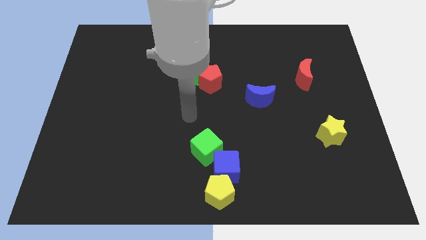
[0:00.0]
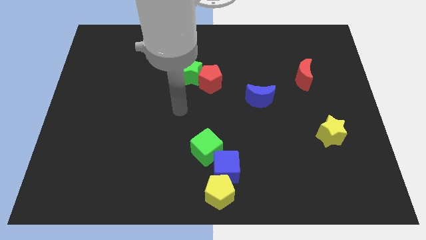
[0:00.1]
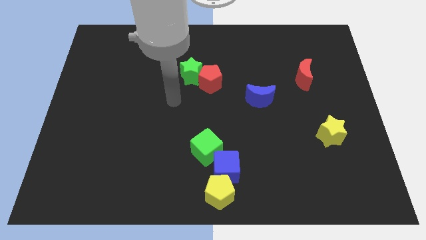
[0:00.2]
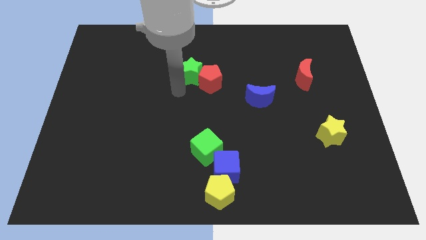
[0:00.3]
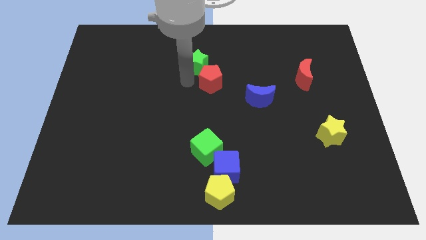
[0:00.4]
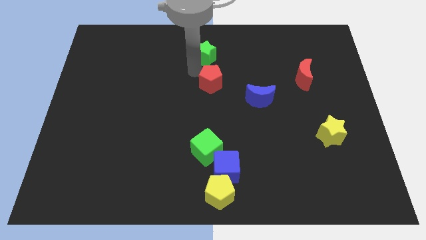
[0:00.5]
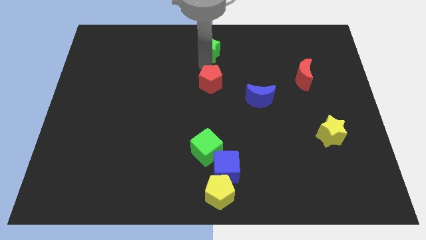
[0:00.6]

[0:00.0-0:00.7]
move the red pentagon away from the green star

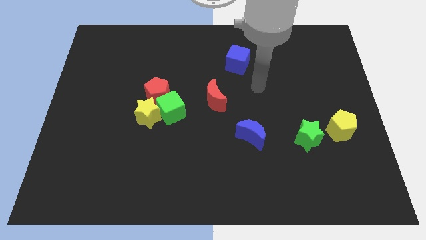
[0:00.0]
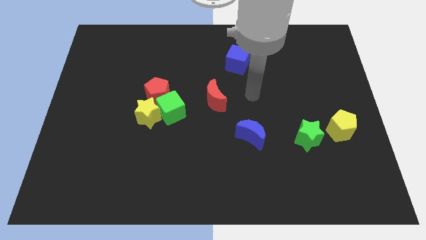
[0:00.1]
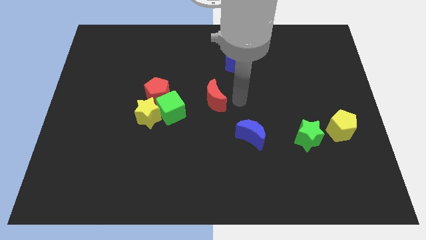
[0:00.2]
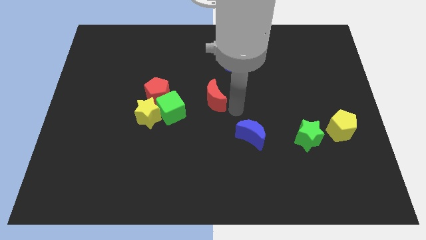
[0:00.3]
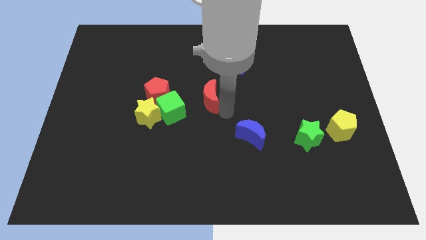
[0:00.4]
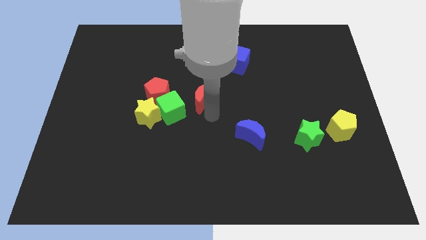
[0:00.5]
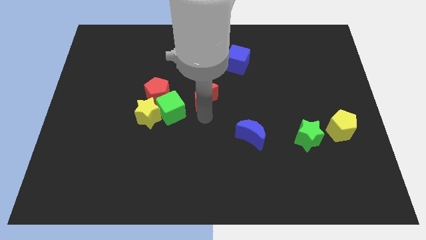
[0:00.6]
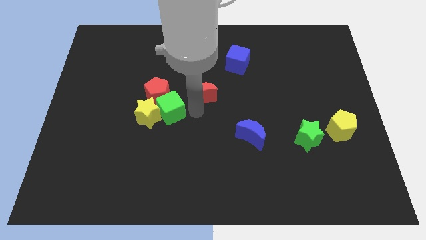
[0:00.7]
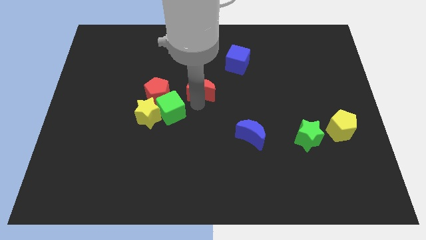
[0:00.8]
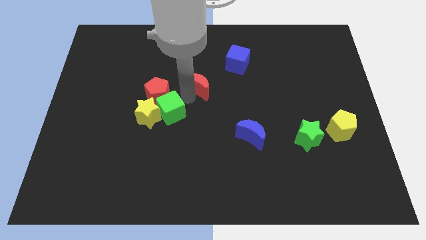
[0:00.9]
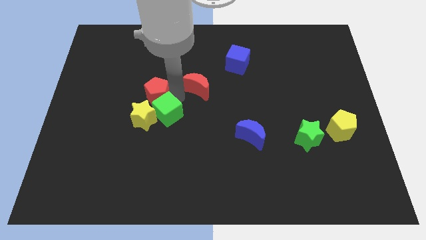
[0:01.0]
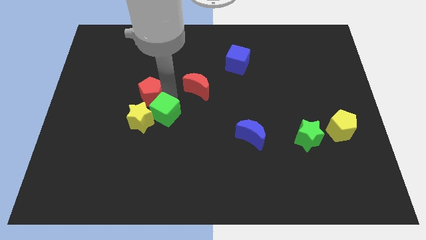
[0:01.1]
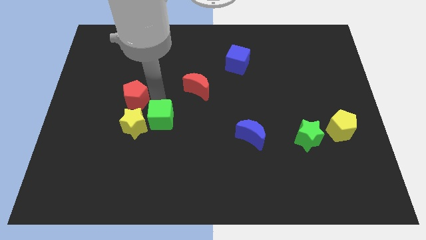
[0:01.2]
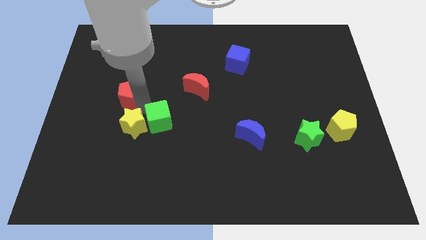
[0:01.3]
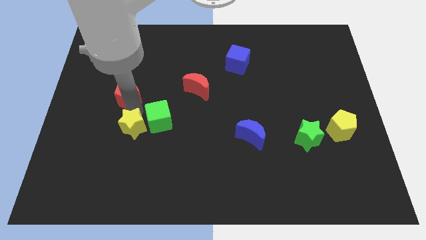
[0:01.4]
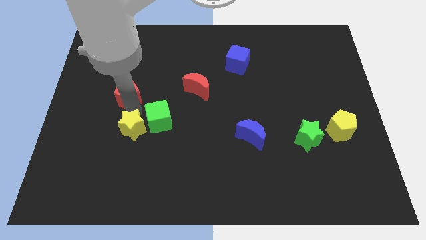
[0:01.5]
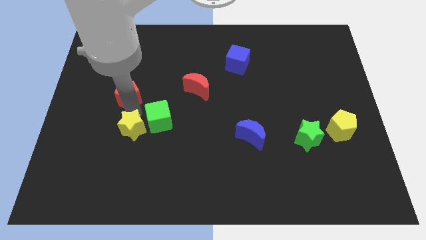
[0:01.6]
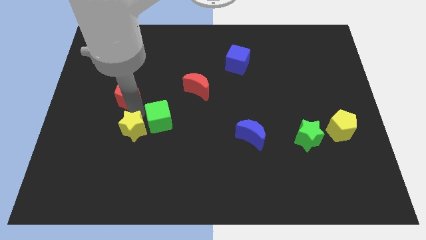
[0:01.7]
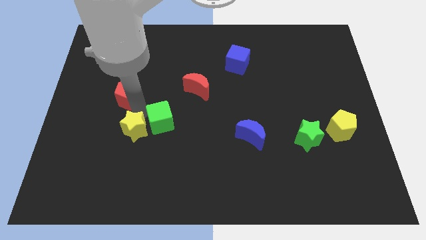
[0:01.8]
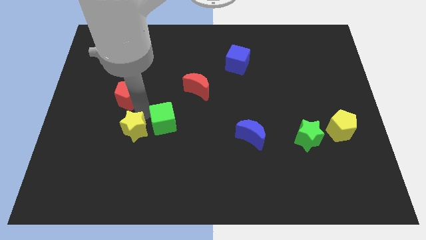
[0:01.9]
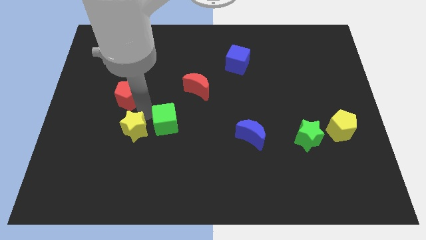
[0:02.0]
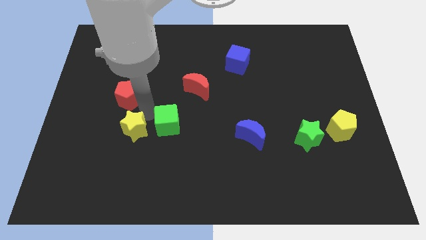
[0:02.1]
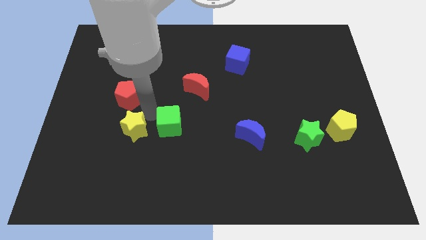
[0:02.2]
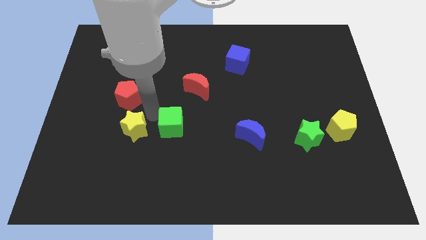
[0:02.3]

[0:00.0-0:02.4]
separate the green cube from the yellow star and red pentagon

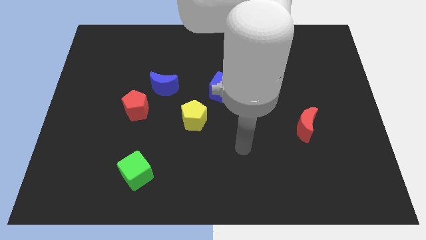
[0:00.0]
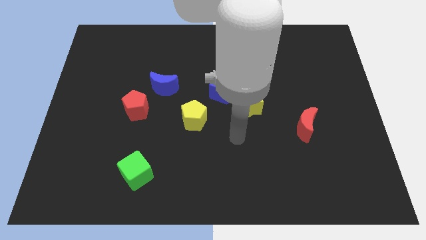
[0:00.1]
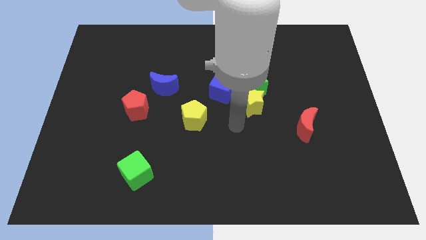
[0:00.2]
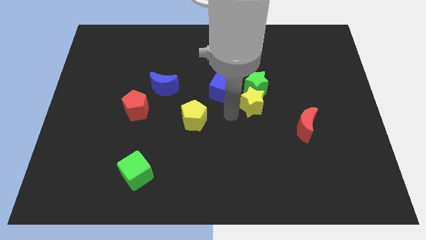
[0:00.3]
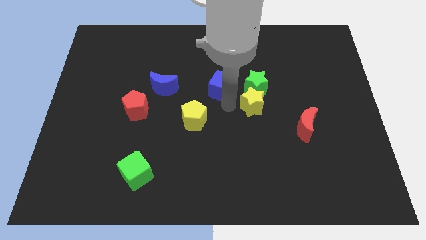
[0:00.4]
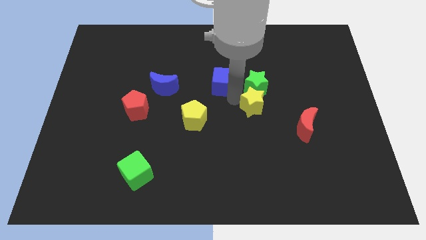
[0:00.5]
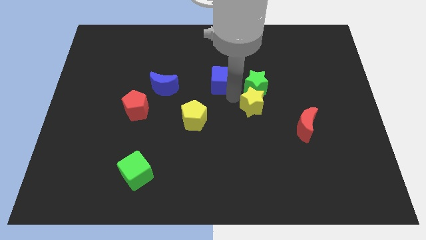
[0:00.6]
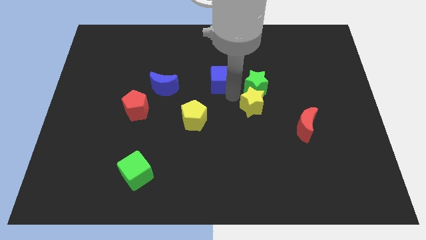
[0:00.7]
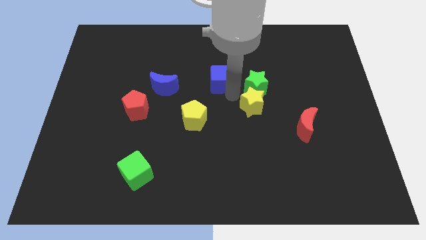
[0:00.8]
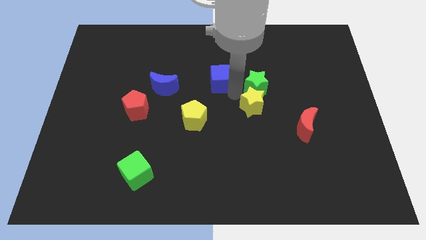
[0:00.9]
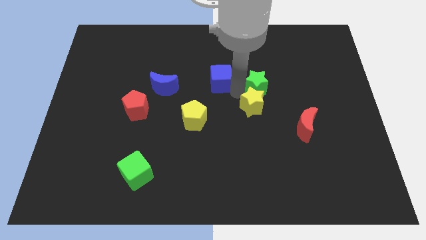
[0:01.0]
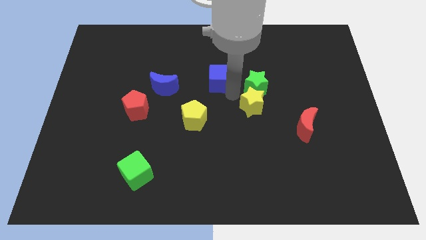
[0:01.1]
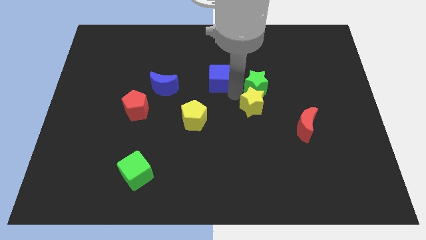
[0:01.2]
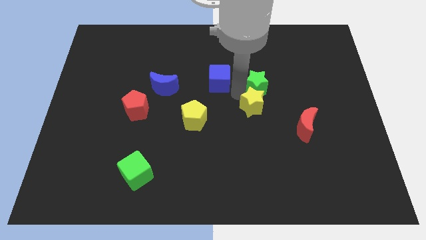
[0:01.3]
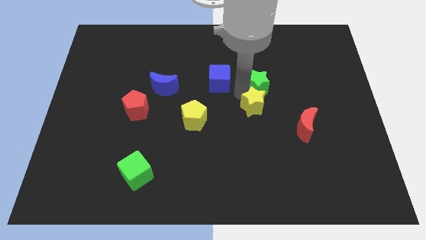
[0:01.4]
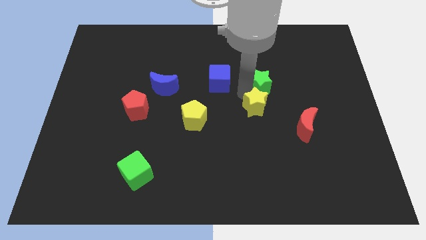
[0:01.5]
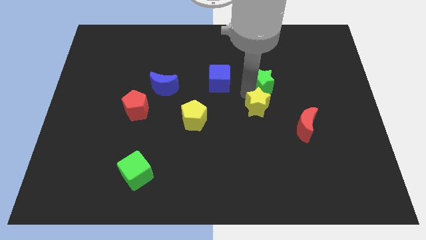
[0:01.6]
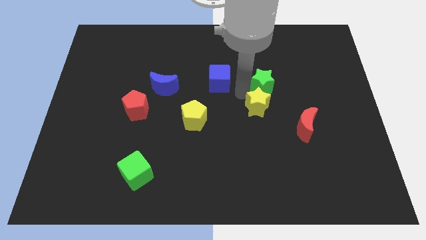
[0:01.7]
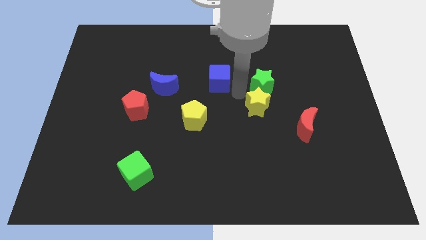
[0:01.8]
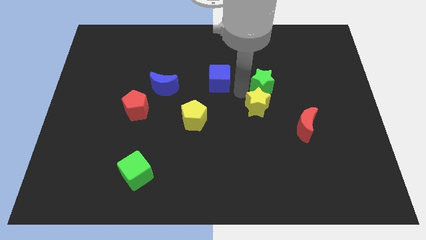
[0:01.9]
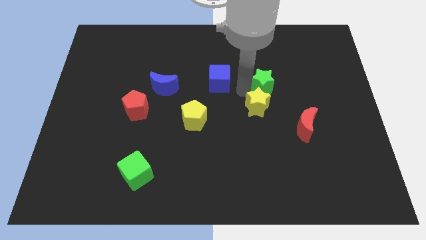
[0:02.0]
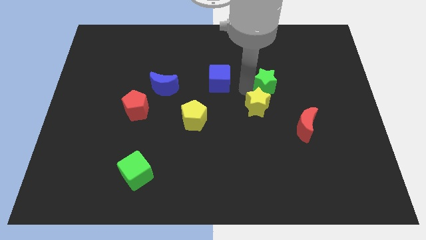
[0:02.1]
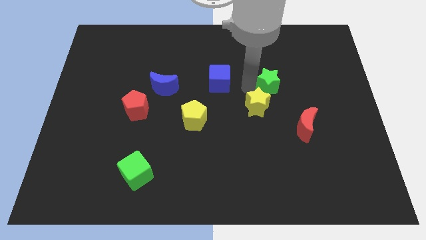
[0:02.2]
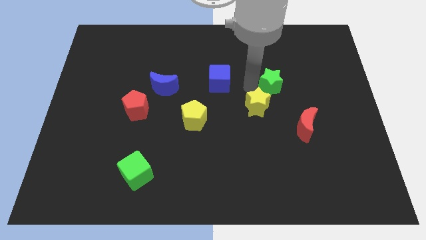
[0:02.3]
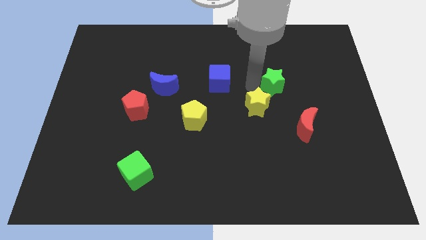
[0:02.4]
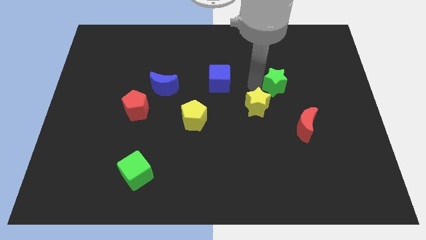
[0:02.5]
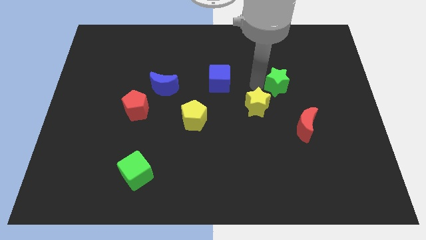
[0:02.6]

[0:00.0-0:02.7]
pull the green star apart from the yellow star and blue cube

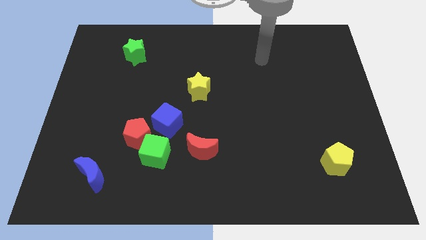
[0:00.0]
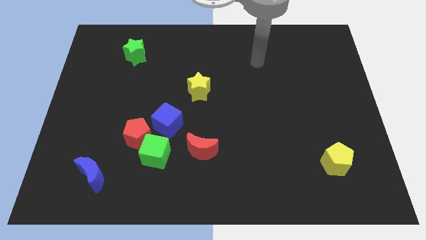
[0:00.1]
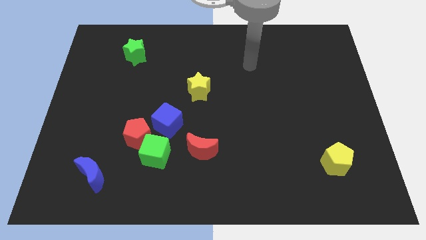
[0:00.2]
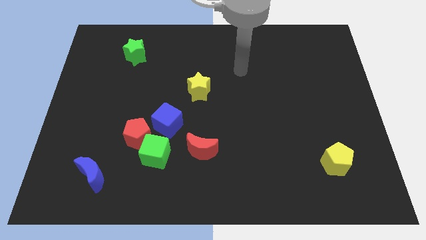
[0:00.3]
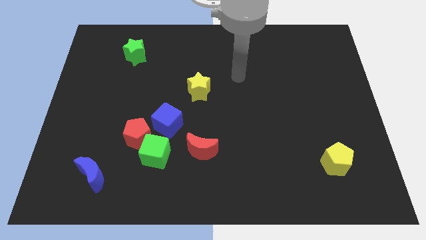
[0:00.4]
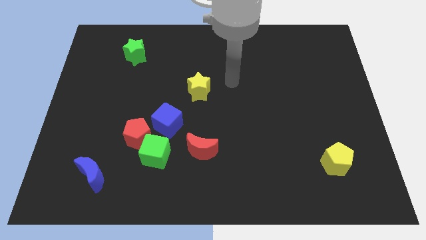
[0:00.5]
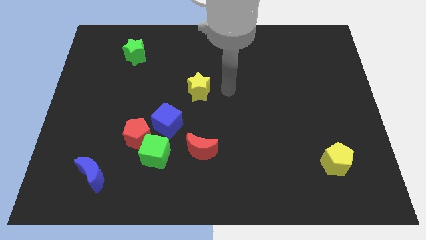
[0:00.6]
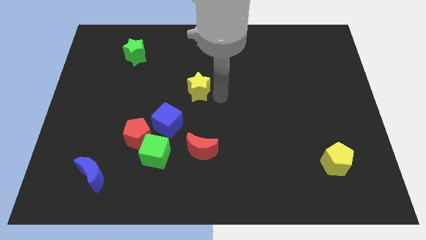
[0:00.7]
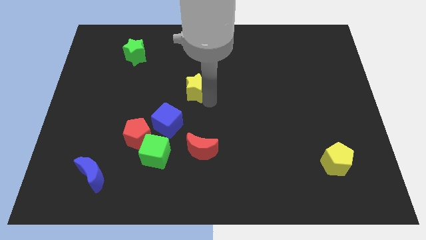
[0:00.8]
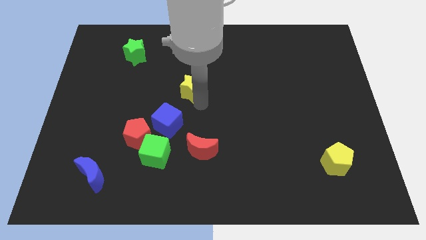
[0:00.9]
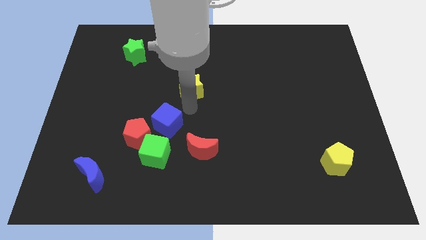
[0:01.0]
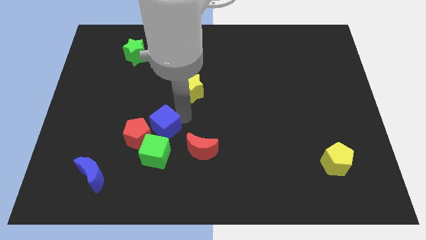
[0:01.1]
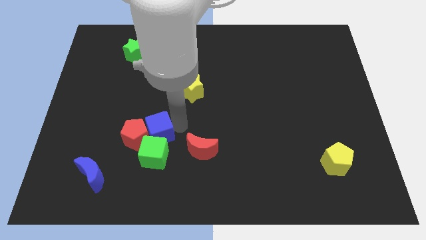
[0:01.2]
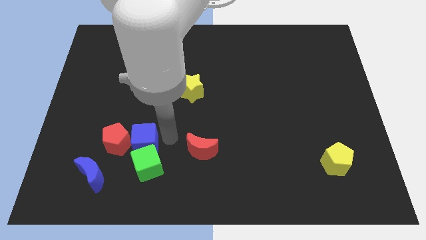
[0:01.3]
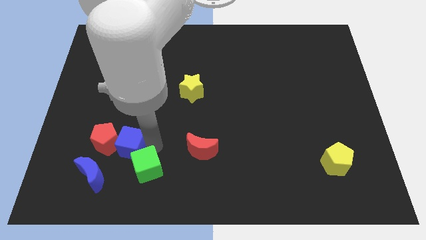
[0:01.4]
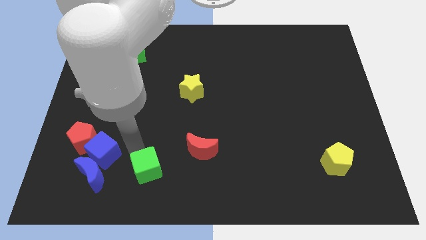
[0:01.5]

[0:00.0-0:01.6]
move the red pentagon away from the green cube and blue cube

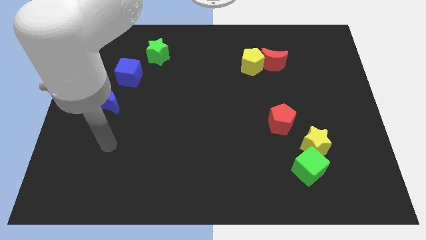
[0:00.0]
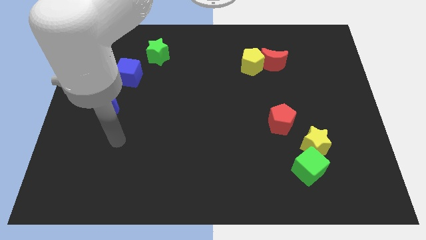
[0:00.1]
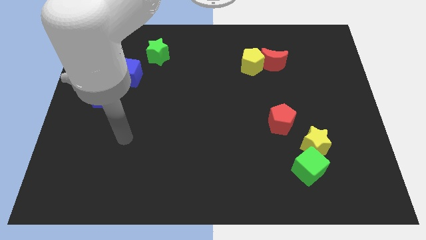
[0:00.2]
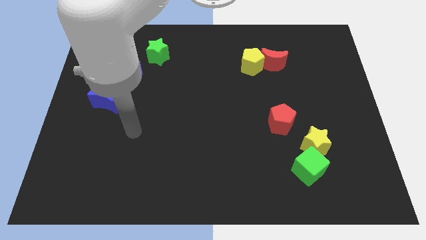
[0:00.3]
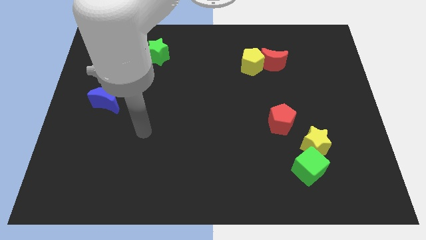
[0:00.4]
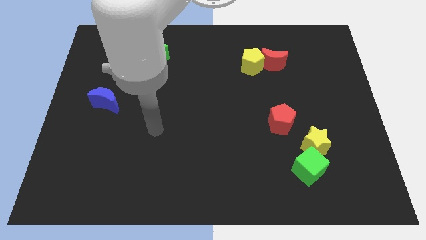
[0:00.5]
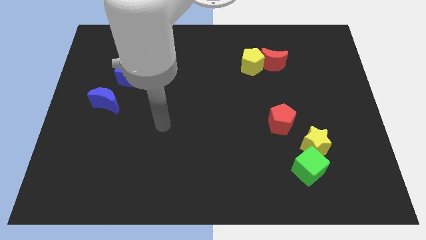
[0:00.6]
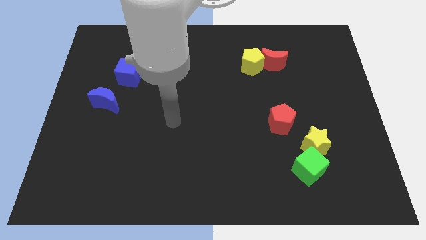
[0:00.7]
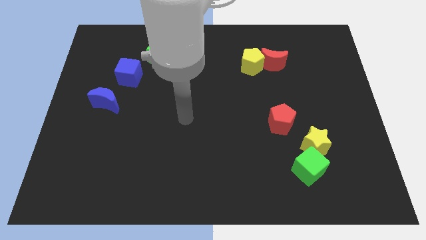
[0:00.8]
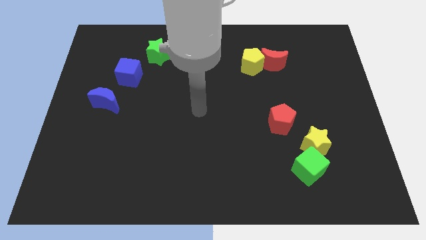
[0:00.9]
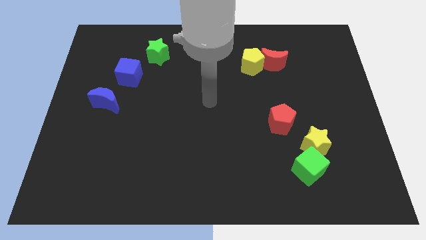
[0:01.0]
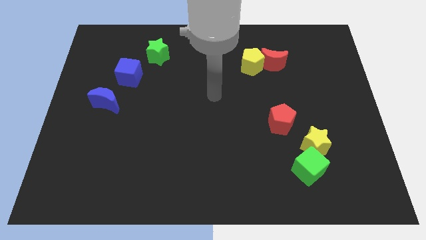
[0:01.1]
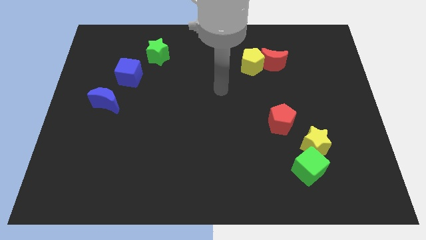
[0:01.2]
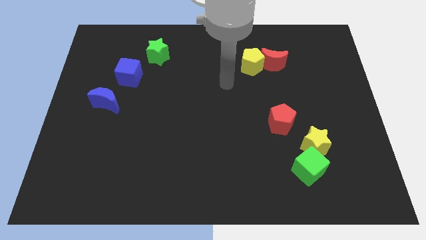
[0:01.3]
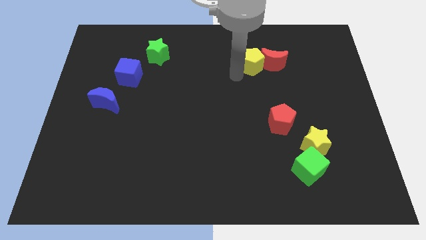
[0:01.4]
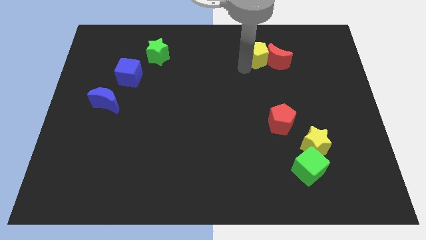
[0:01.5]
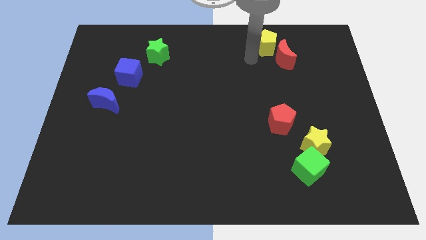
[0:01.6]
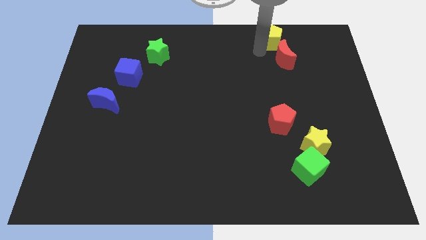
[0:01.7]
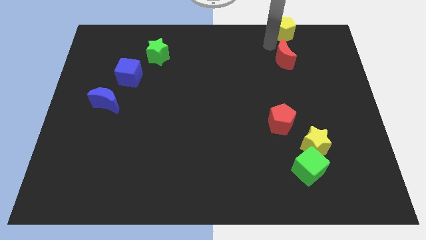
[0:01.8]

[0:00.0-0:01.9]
separate the red moon from the yellow pentagon
